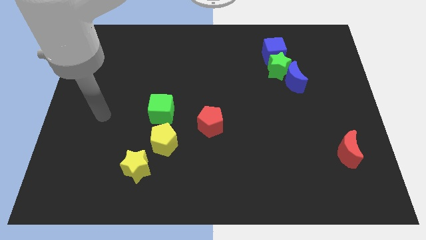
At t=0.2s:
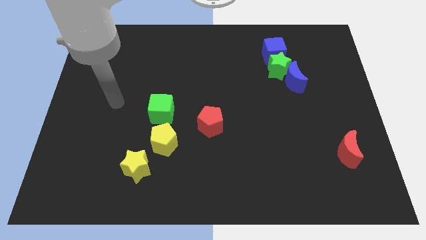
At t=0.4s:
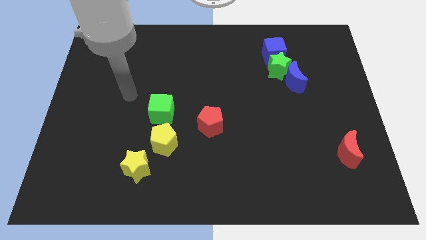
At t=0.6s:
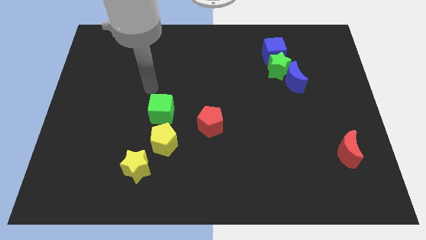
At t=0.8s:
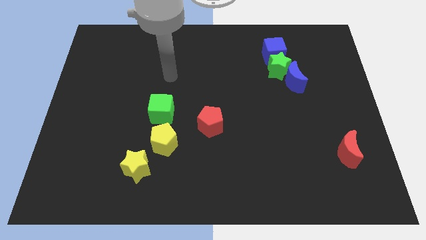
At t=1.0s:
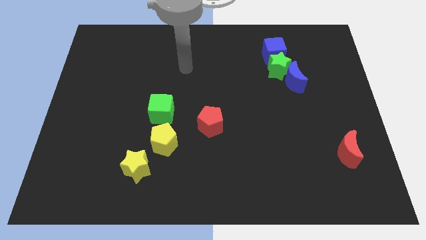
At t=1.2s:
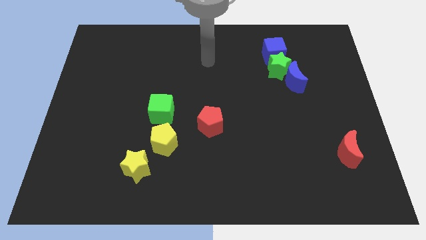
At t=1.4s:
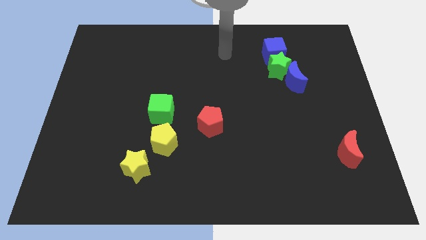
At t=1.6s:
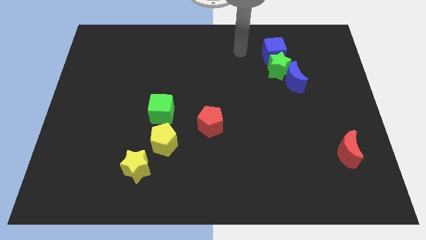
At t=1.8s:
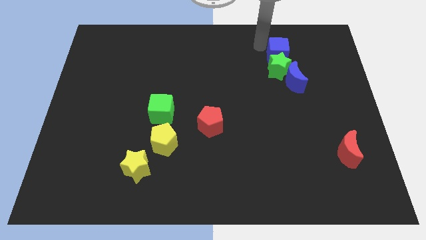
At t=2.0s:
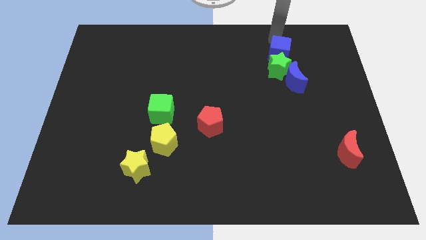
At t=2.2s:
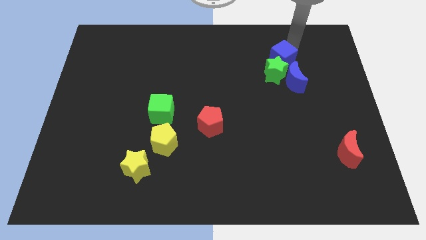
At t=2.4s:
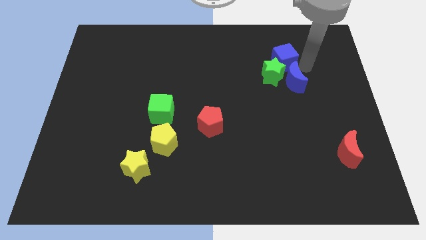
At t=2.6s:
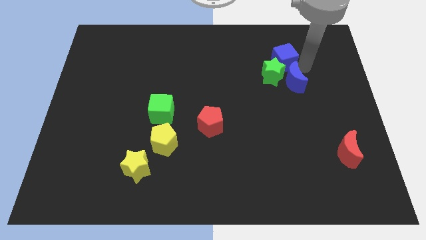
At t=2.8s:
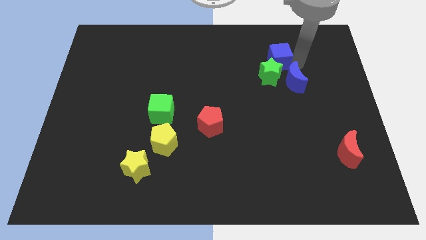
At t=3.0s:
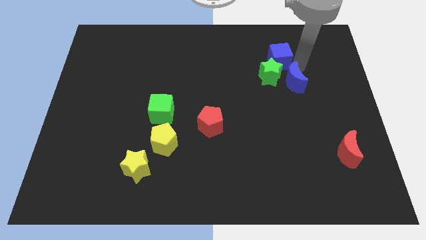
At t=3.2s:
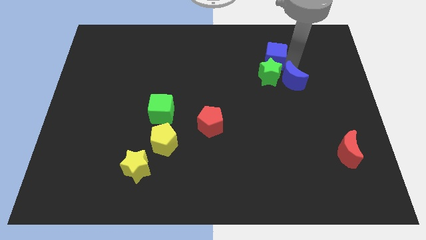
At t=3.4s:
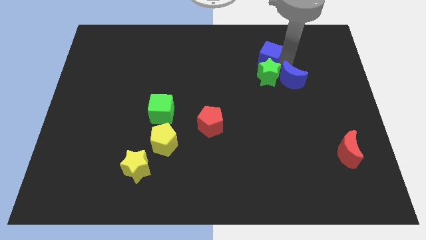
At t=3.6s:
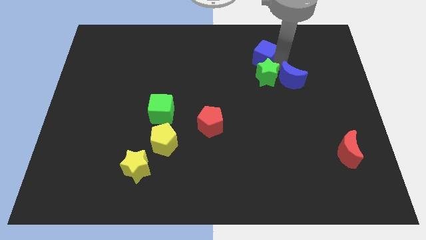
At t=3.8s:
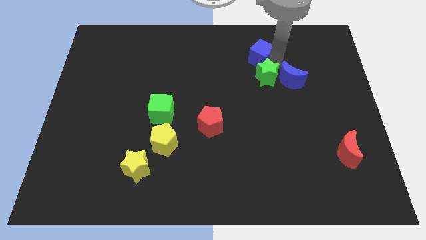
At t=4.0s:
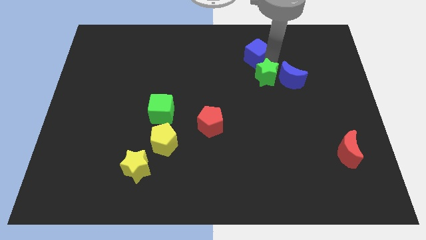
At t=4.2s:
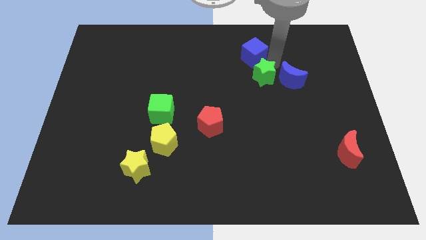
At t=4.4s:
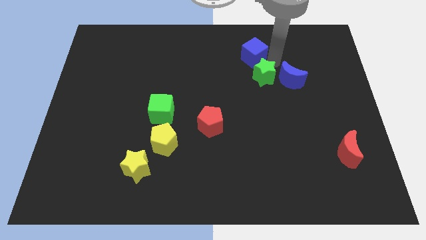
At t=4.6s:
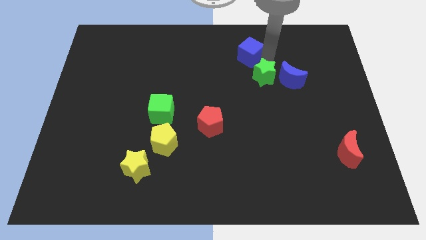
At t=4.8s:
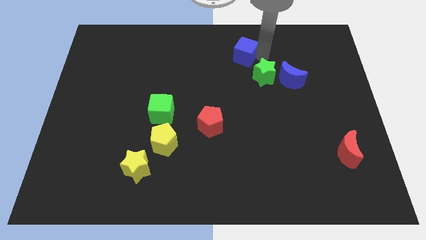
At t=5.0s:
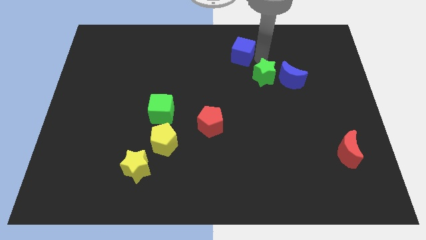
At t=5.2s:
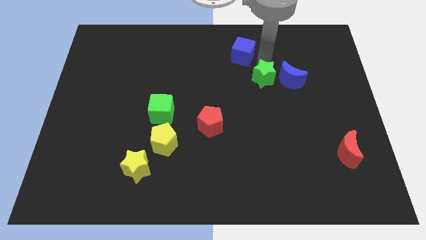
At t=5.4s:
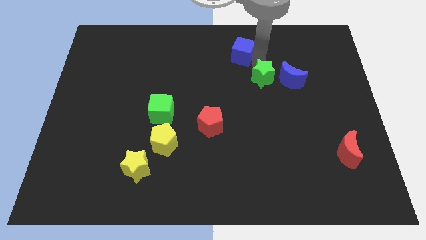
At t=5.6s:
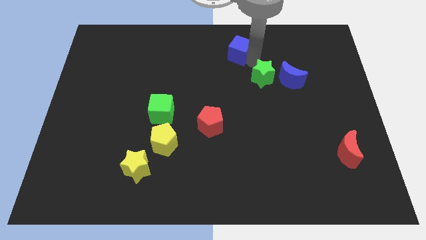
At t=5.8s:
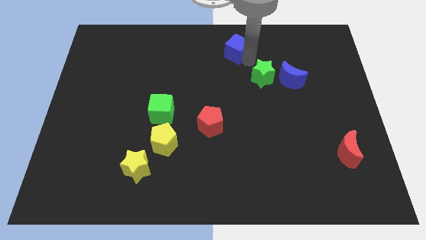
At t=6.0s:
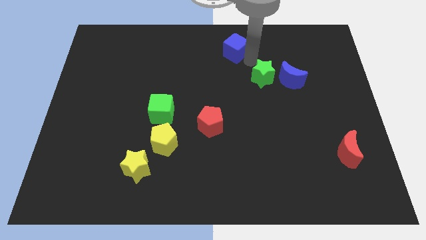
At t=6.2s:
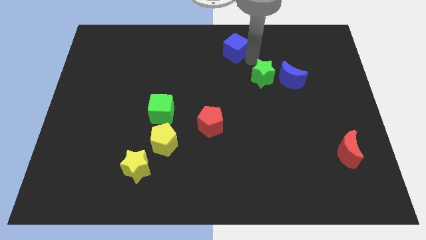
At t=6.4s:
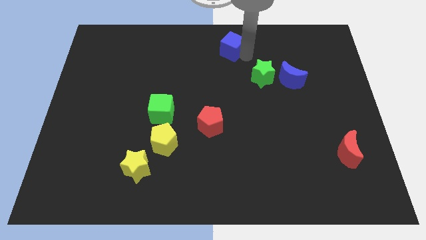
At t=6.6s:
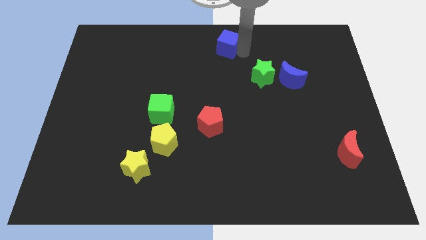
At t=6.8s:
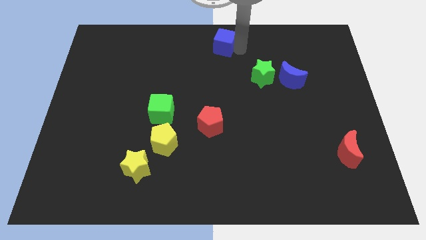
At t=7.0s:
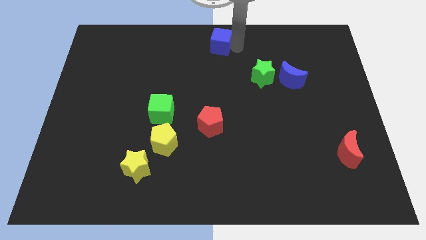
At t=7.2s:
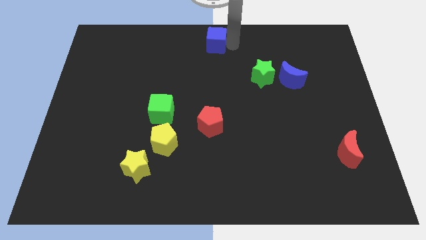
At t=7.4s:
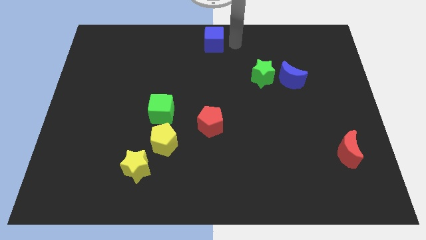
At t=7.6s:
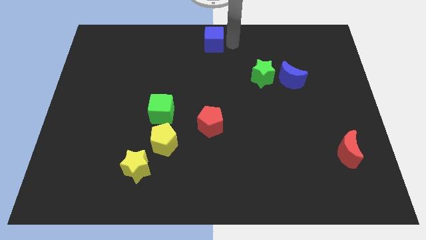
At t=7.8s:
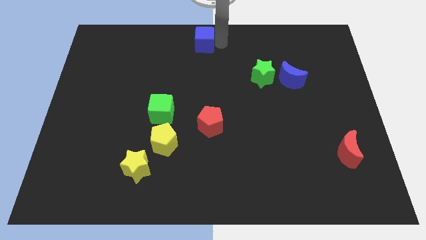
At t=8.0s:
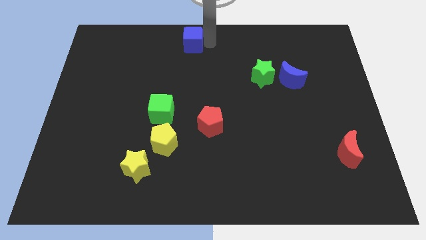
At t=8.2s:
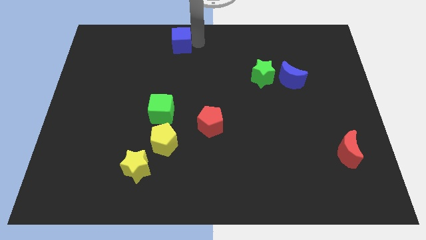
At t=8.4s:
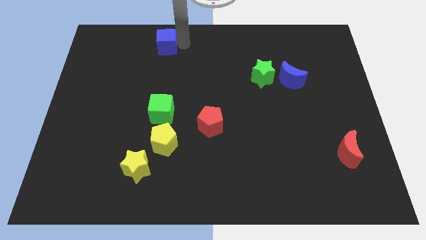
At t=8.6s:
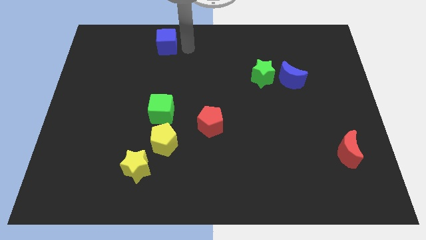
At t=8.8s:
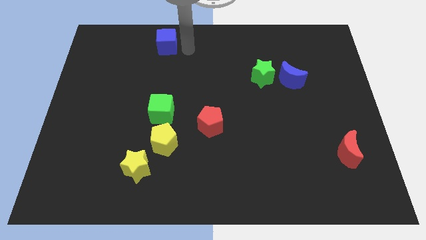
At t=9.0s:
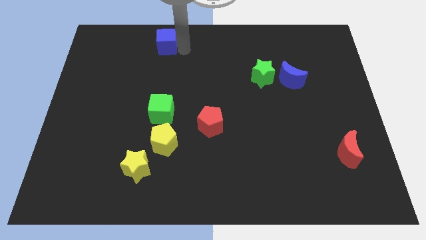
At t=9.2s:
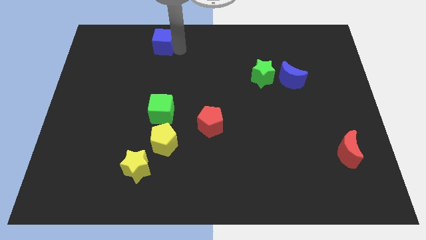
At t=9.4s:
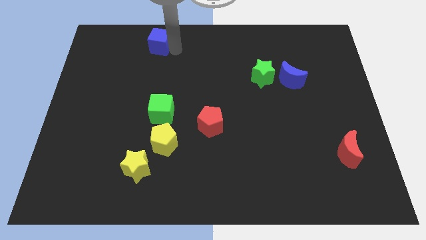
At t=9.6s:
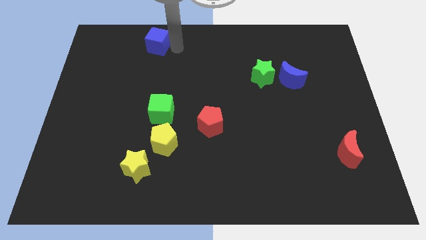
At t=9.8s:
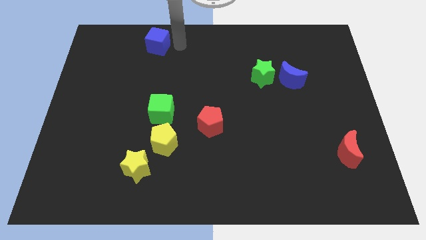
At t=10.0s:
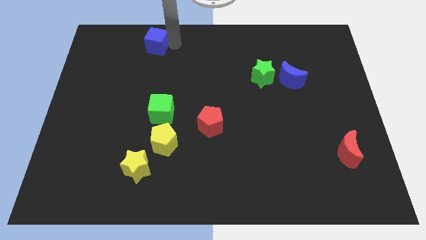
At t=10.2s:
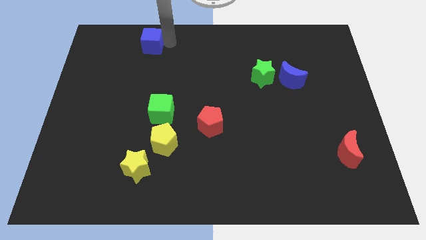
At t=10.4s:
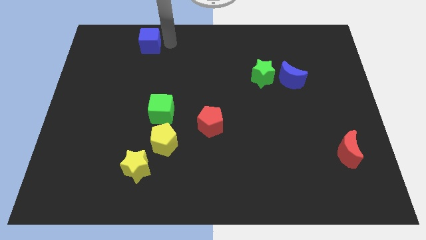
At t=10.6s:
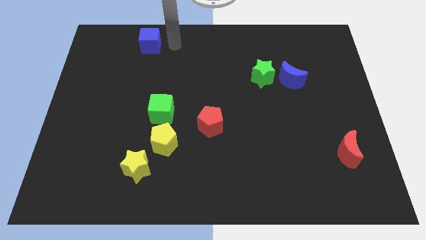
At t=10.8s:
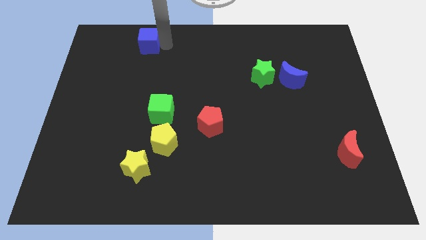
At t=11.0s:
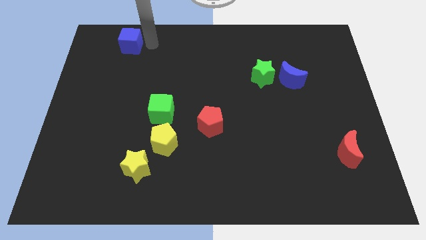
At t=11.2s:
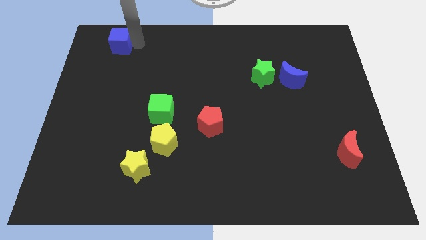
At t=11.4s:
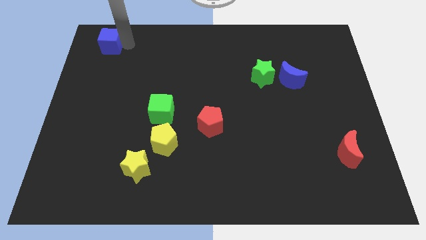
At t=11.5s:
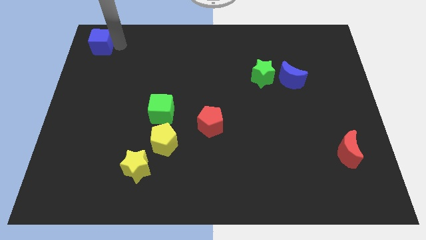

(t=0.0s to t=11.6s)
slide the blue cube to the upper left corner
